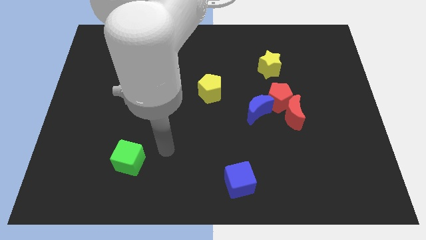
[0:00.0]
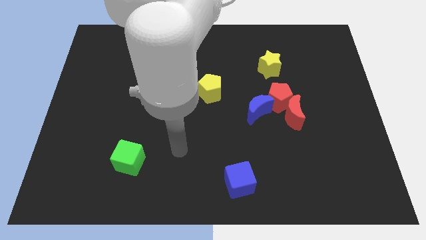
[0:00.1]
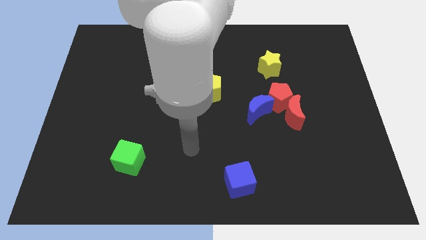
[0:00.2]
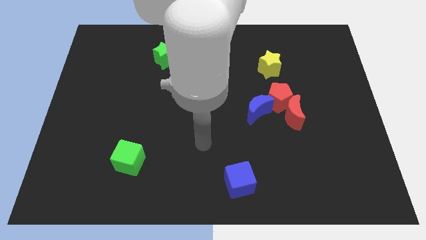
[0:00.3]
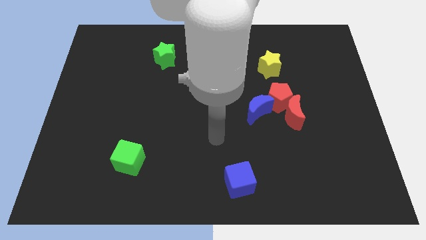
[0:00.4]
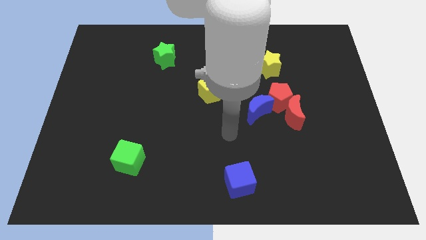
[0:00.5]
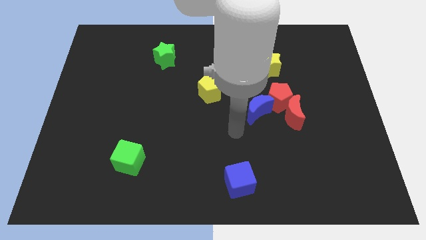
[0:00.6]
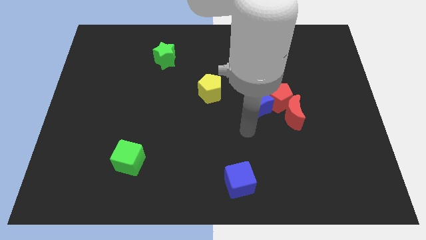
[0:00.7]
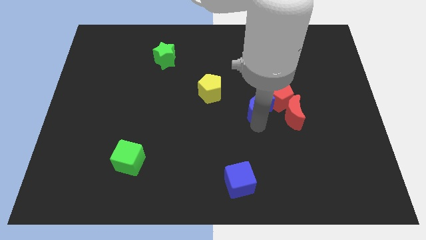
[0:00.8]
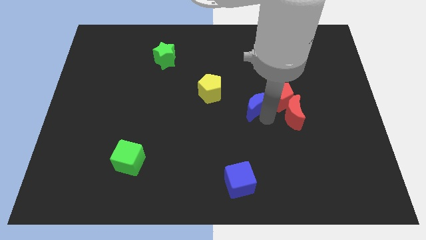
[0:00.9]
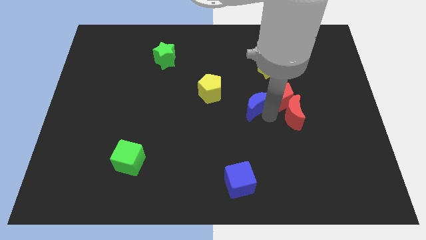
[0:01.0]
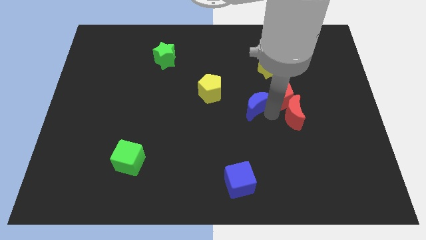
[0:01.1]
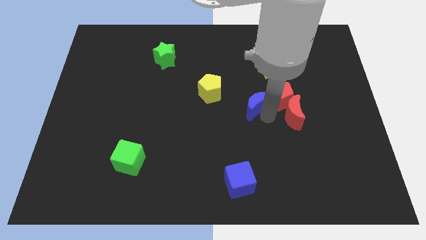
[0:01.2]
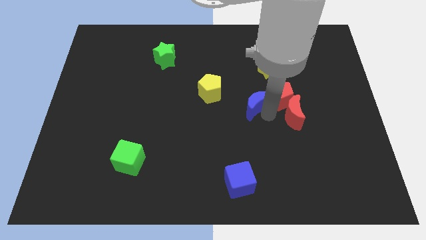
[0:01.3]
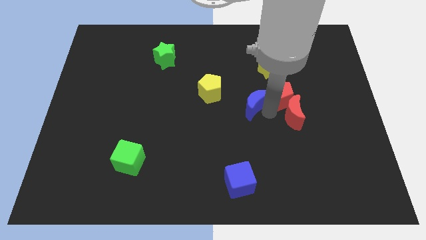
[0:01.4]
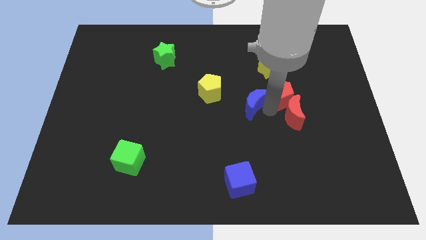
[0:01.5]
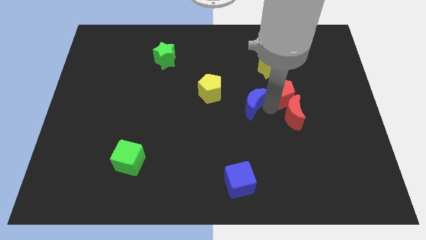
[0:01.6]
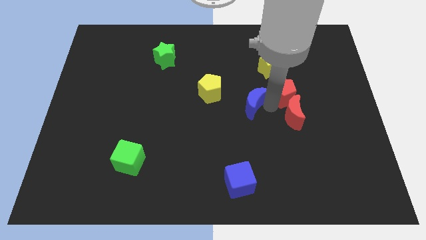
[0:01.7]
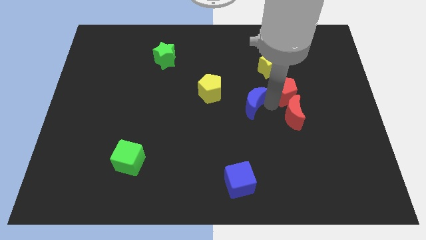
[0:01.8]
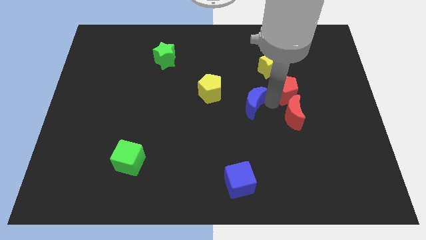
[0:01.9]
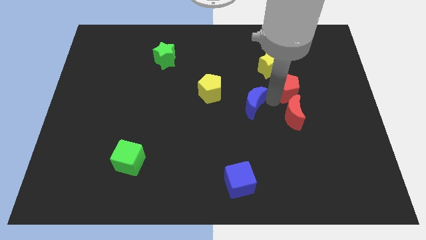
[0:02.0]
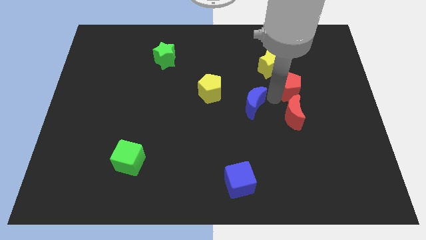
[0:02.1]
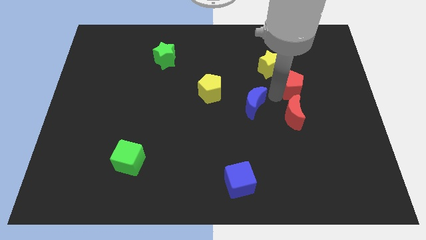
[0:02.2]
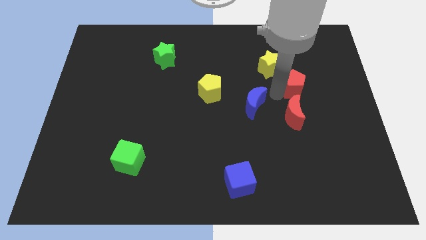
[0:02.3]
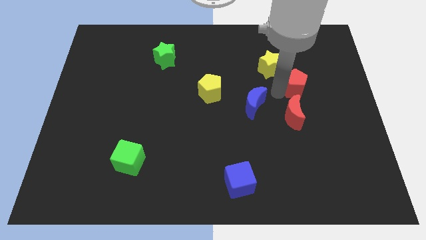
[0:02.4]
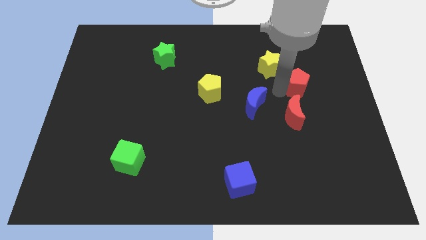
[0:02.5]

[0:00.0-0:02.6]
separate the red pentagon from the red moon and blue moon

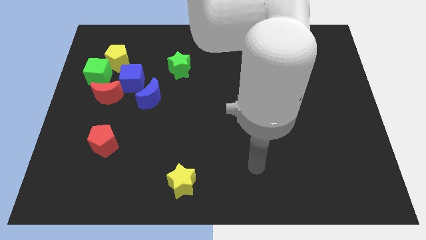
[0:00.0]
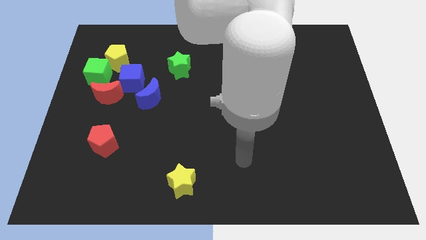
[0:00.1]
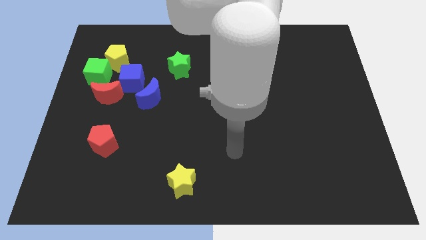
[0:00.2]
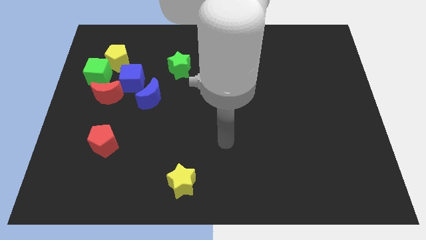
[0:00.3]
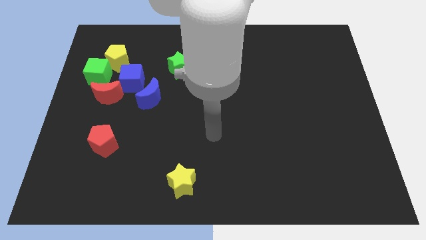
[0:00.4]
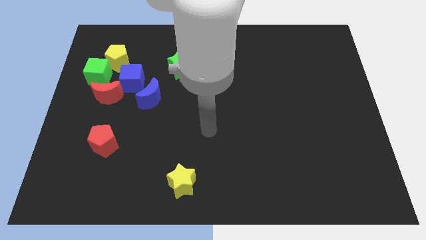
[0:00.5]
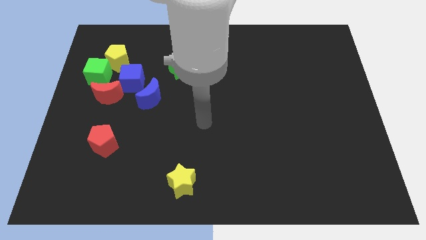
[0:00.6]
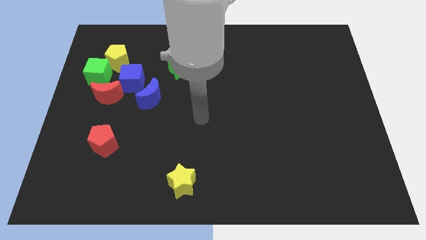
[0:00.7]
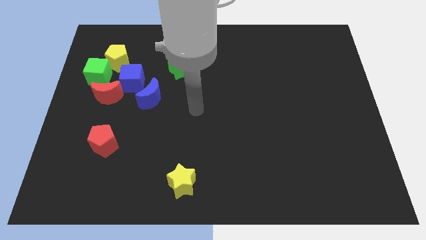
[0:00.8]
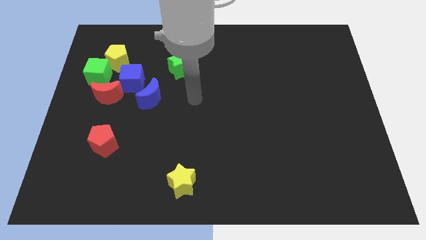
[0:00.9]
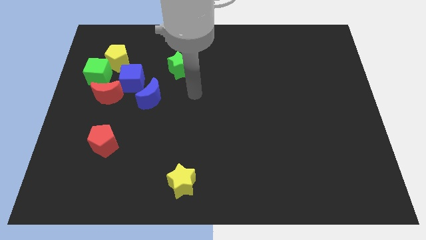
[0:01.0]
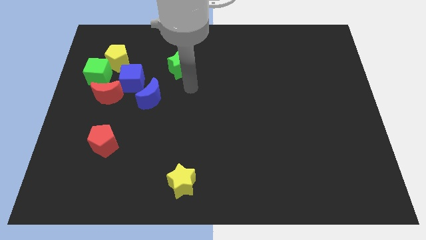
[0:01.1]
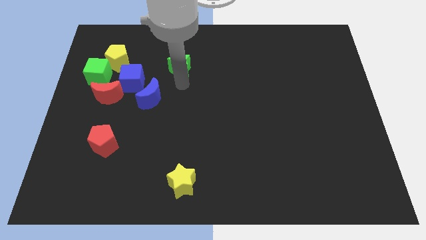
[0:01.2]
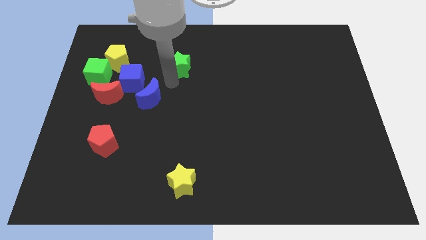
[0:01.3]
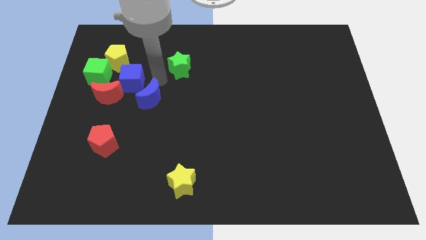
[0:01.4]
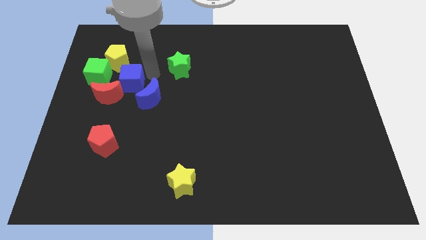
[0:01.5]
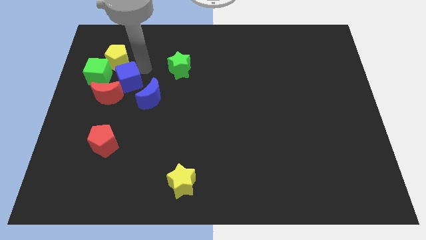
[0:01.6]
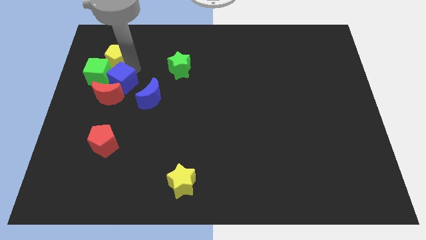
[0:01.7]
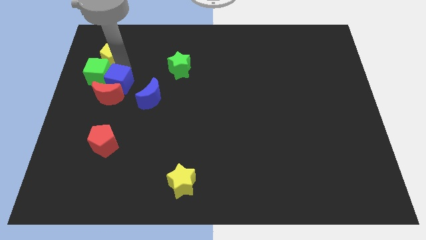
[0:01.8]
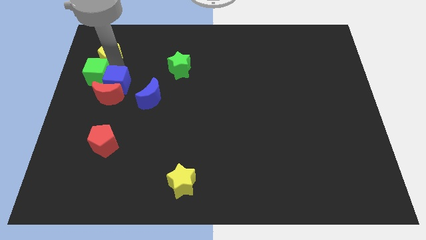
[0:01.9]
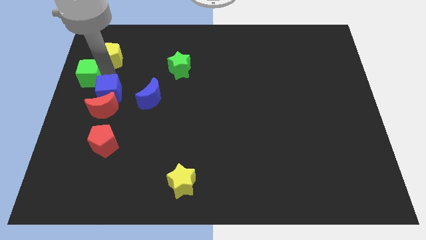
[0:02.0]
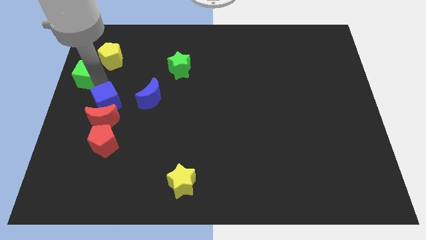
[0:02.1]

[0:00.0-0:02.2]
move the red moon away from the blue cube and green cube

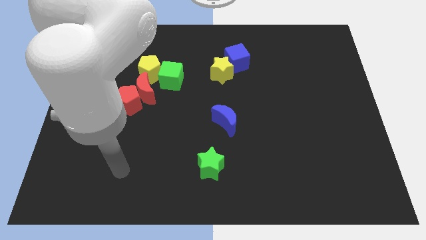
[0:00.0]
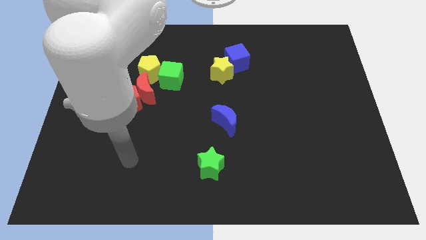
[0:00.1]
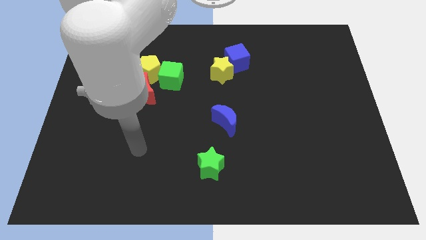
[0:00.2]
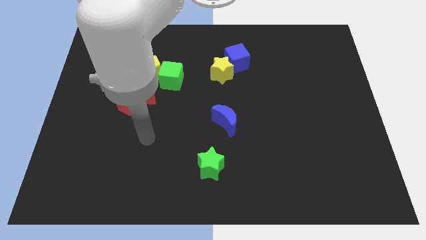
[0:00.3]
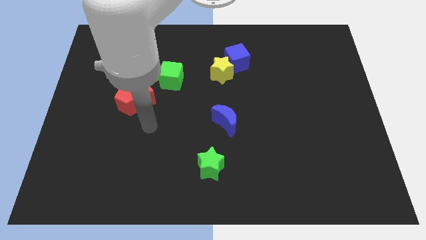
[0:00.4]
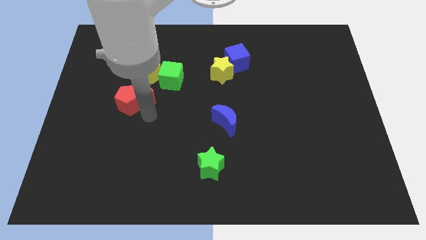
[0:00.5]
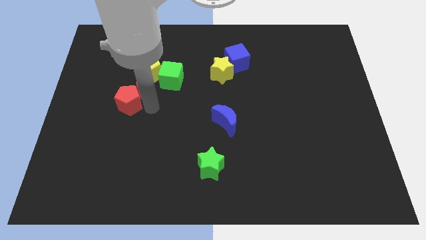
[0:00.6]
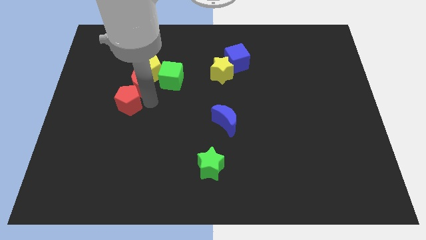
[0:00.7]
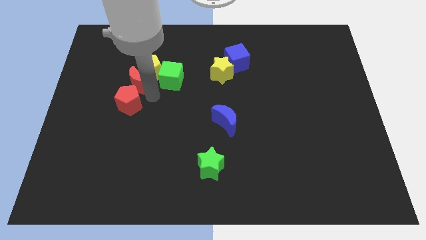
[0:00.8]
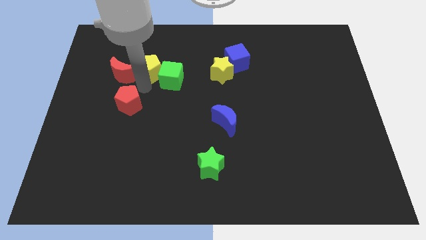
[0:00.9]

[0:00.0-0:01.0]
move the red pentagon away from the red moon

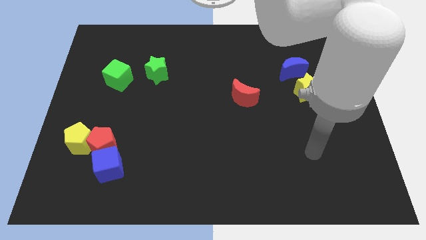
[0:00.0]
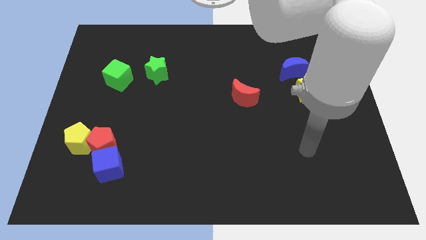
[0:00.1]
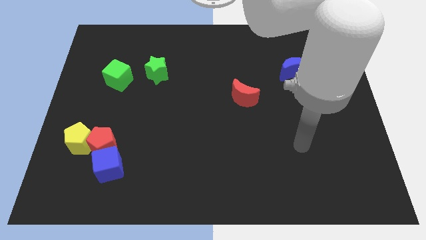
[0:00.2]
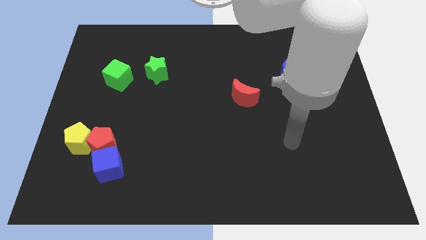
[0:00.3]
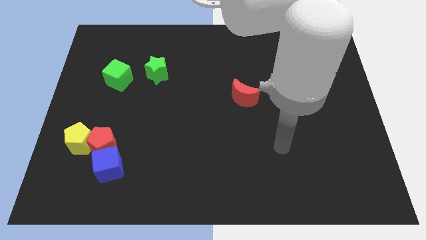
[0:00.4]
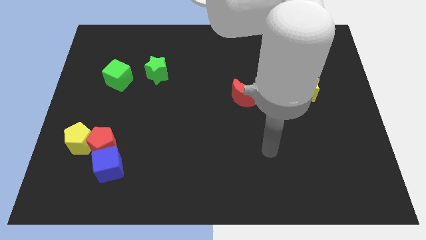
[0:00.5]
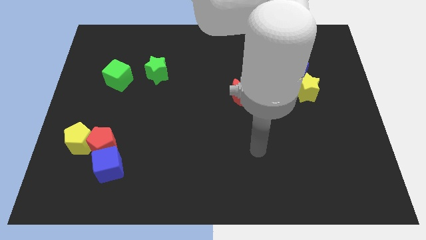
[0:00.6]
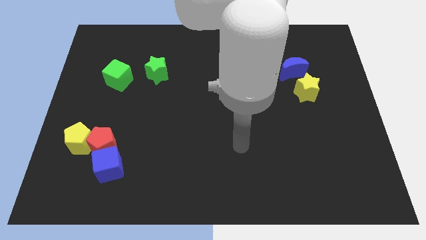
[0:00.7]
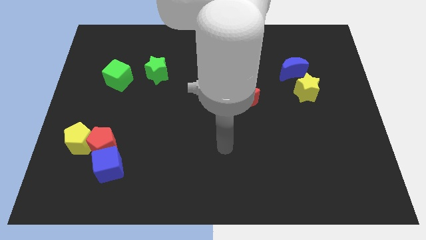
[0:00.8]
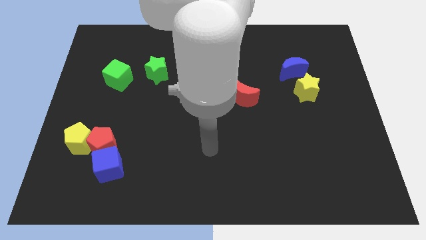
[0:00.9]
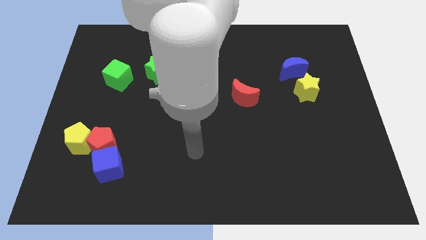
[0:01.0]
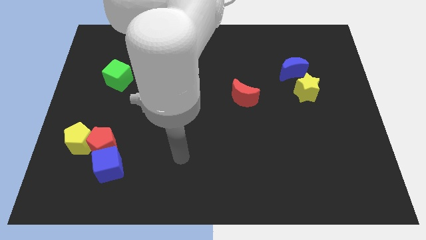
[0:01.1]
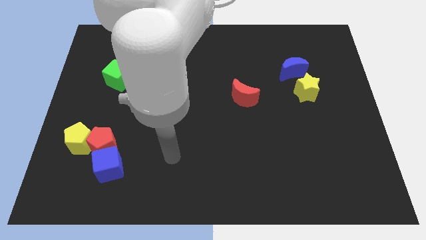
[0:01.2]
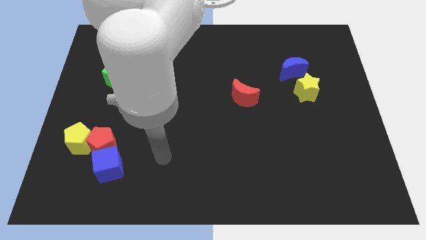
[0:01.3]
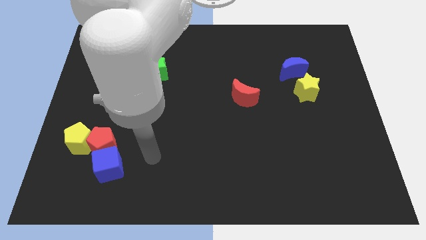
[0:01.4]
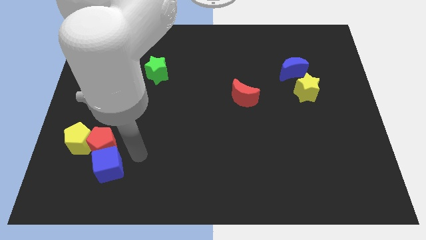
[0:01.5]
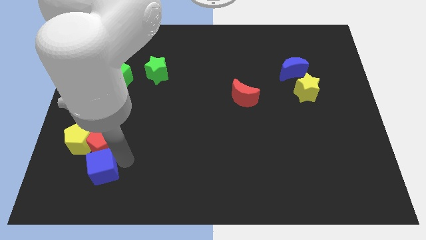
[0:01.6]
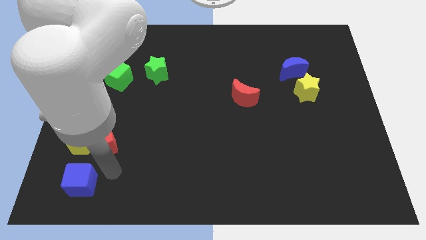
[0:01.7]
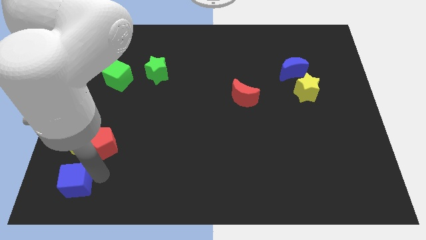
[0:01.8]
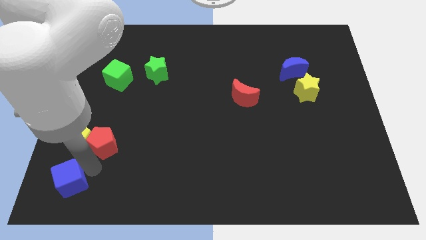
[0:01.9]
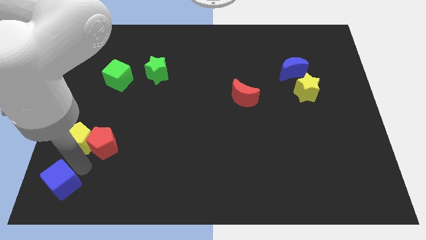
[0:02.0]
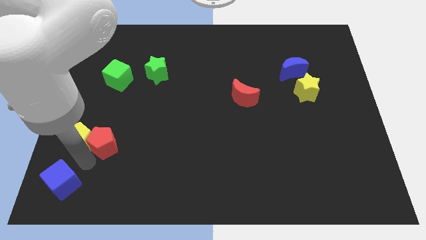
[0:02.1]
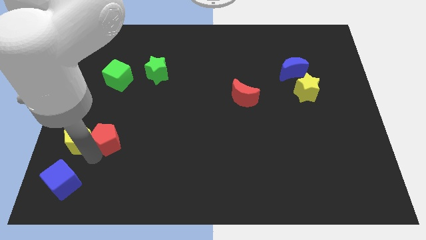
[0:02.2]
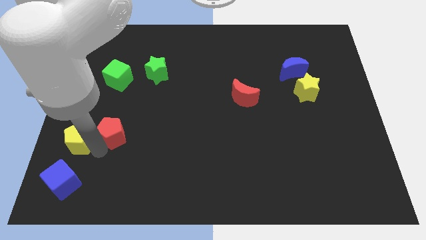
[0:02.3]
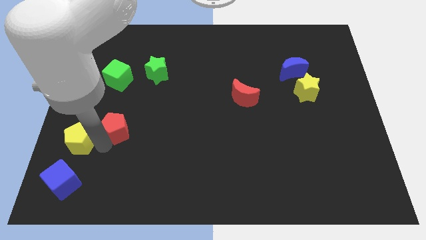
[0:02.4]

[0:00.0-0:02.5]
move the red pentagon away from the yellow pentagon and blue cube

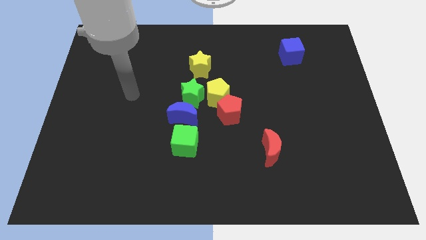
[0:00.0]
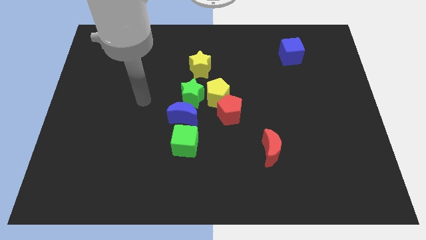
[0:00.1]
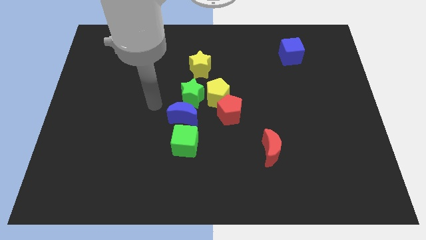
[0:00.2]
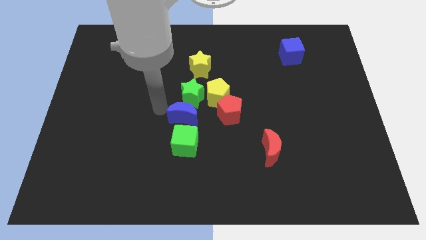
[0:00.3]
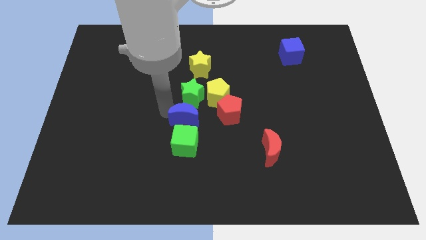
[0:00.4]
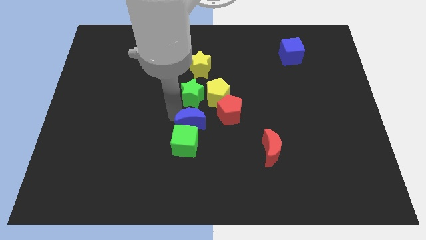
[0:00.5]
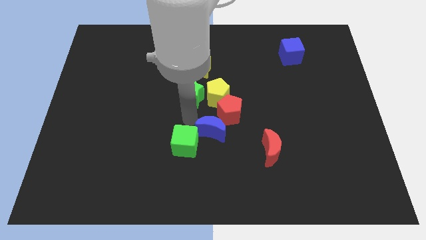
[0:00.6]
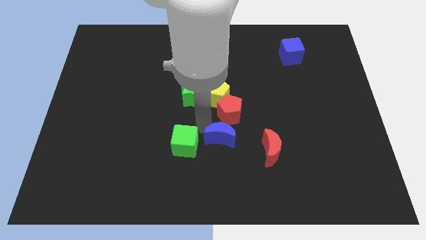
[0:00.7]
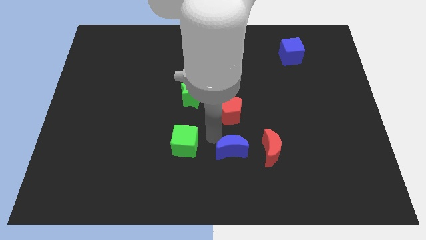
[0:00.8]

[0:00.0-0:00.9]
pull the green cube apart from the blue moon

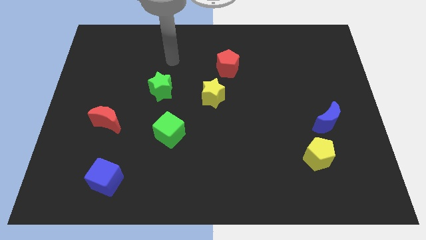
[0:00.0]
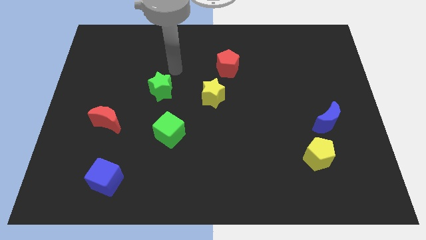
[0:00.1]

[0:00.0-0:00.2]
separate the blue moon from the yellow pentagon
